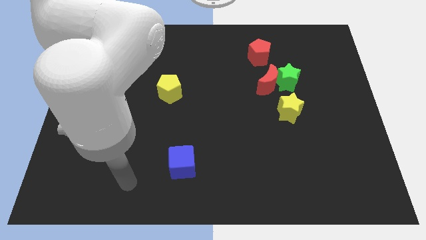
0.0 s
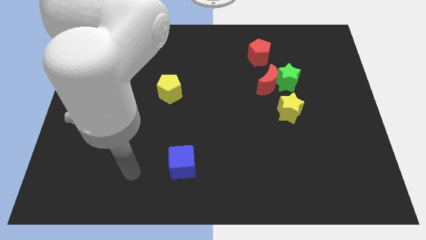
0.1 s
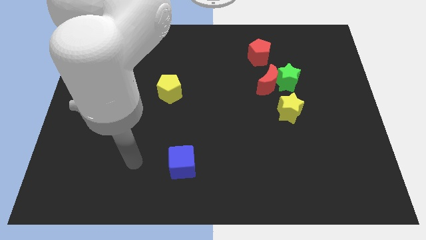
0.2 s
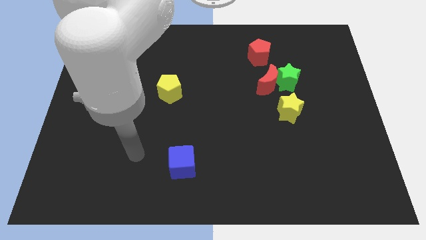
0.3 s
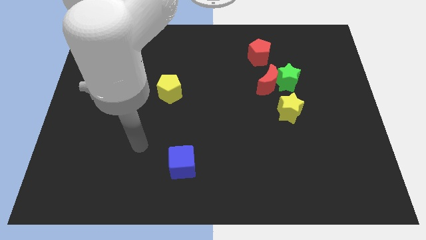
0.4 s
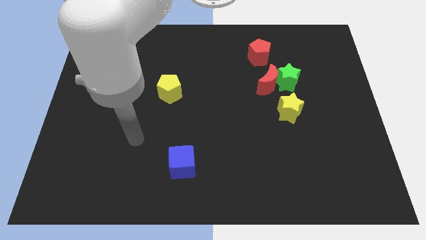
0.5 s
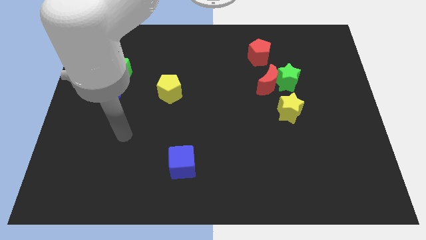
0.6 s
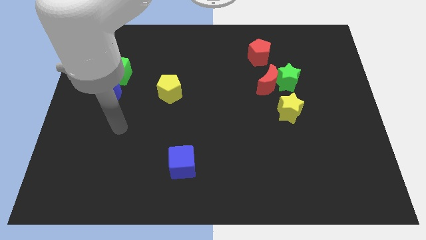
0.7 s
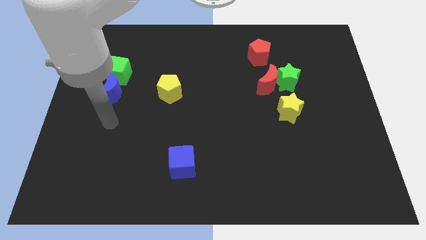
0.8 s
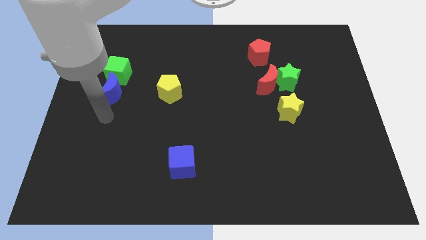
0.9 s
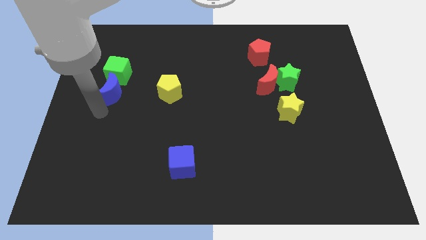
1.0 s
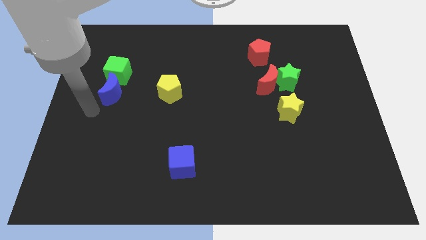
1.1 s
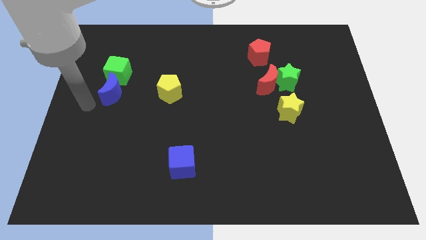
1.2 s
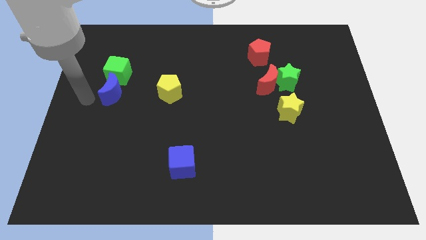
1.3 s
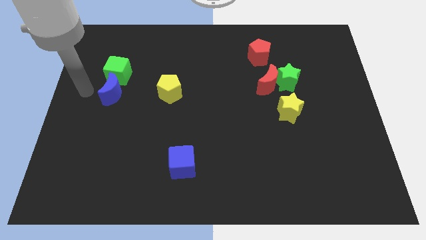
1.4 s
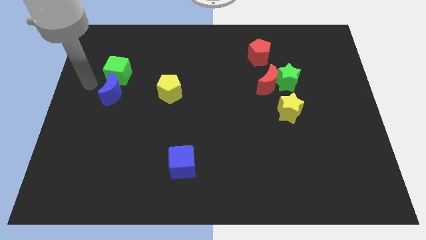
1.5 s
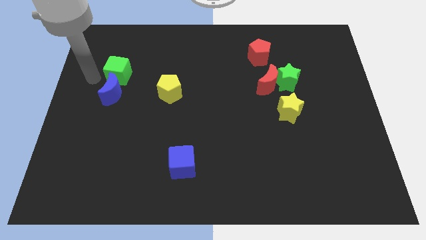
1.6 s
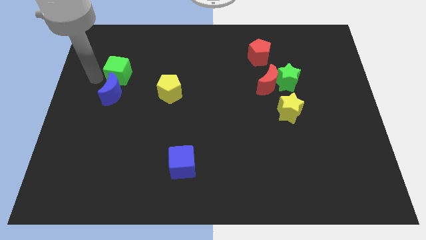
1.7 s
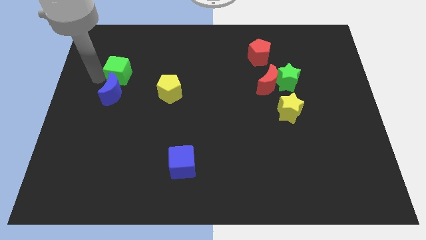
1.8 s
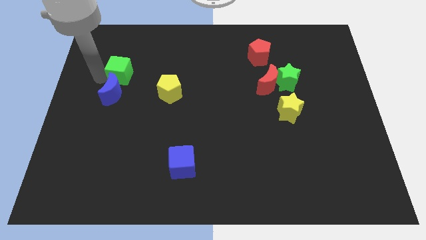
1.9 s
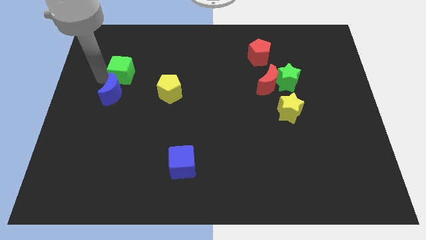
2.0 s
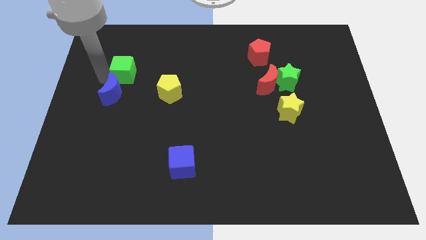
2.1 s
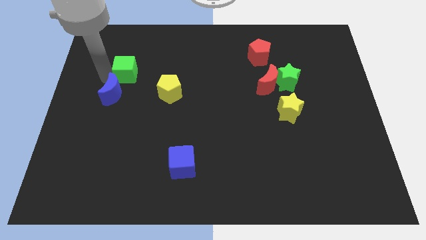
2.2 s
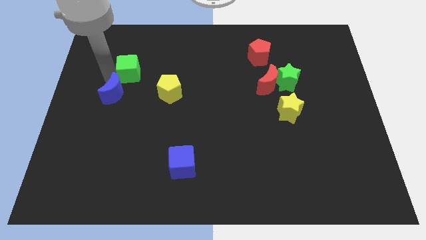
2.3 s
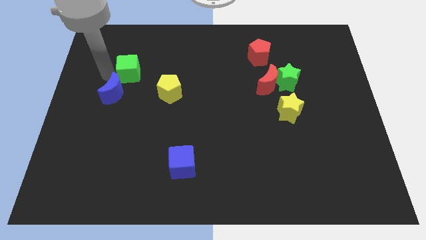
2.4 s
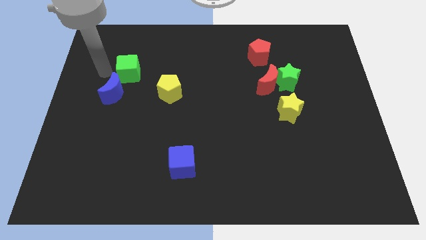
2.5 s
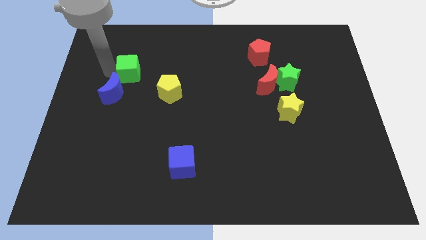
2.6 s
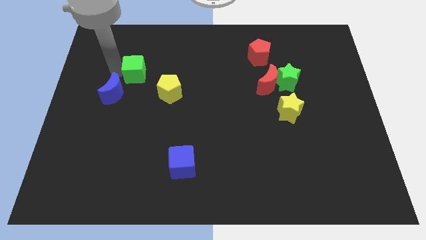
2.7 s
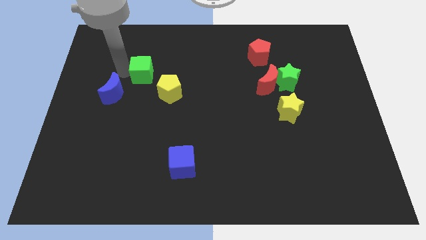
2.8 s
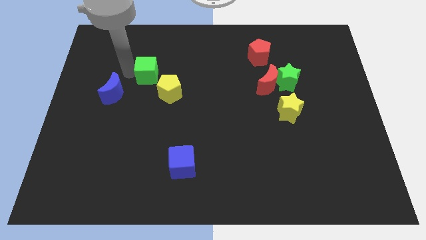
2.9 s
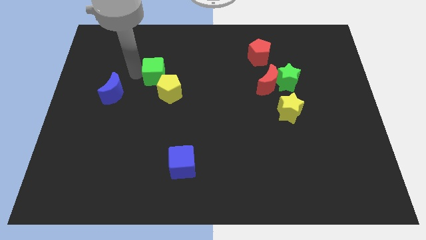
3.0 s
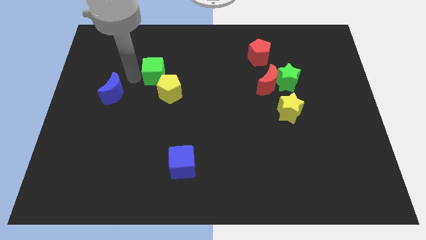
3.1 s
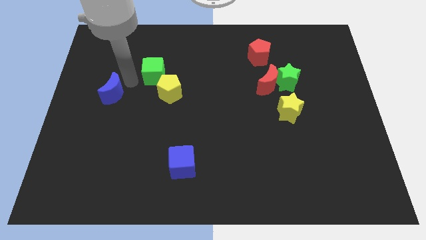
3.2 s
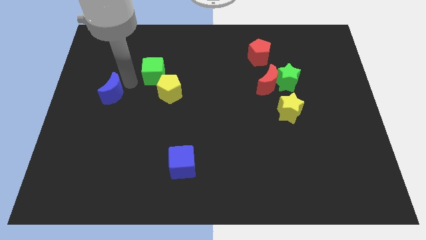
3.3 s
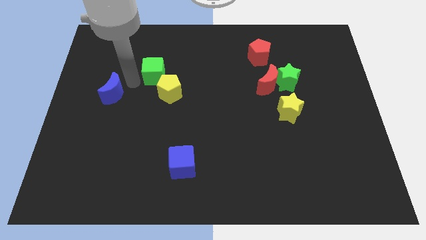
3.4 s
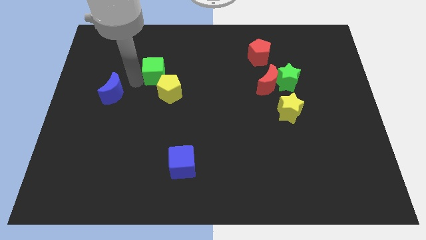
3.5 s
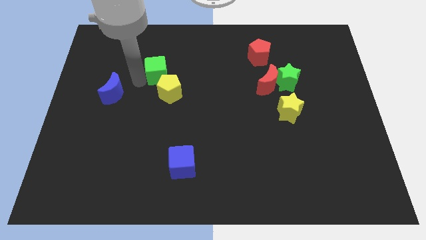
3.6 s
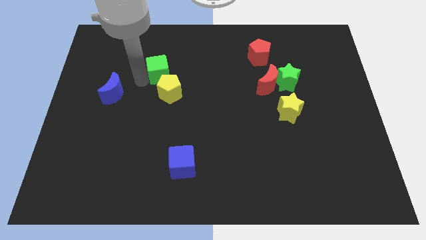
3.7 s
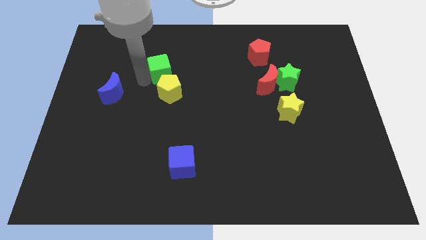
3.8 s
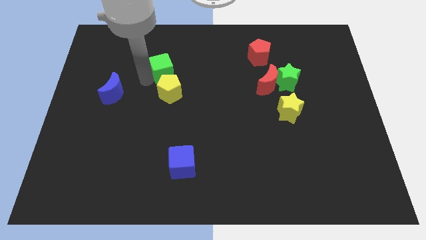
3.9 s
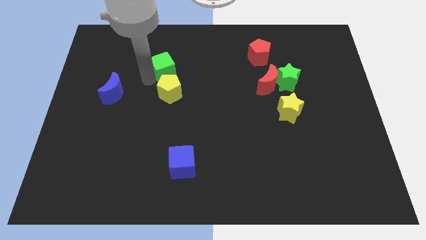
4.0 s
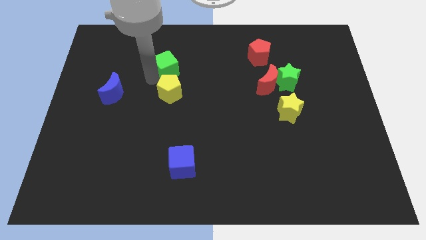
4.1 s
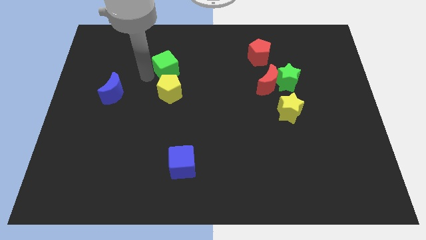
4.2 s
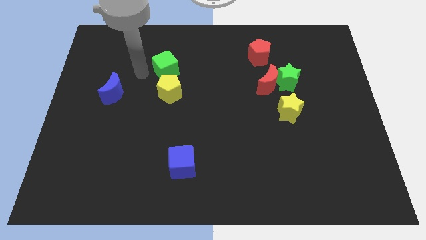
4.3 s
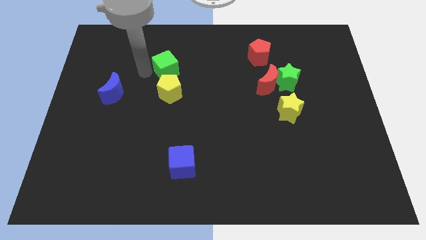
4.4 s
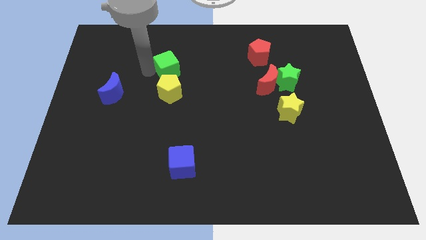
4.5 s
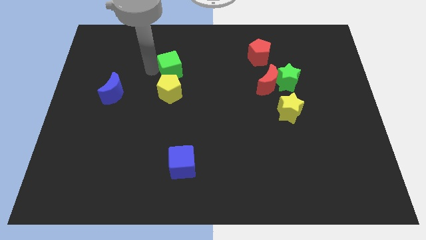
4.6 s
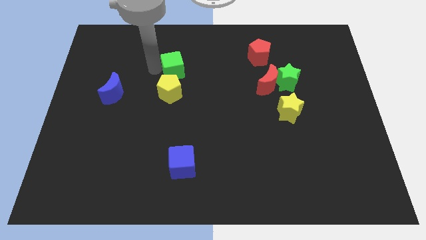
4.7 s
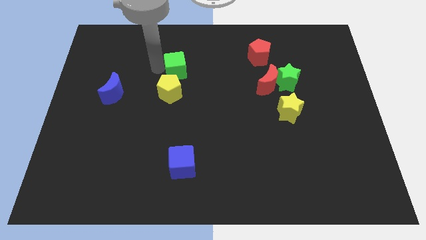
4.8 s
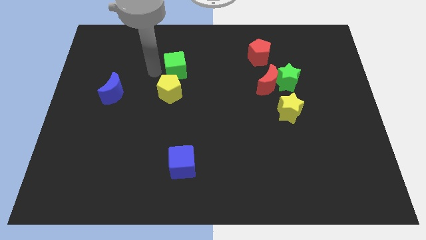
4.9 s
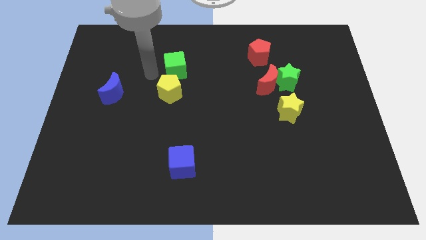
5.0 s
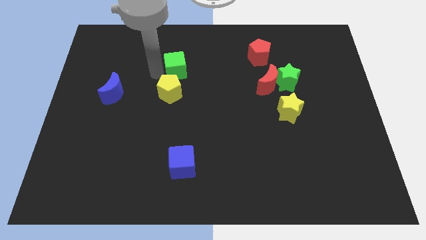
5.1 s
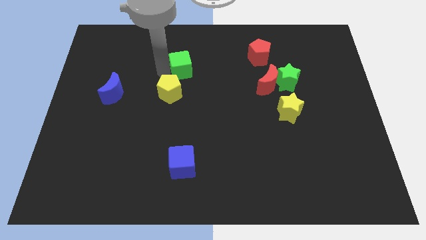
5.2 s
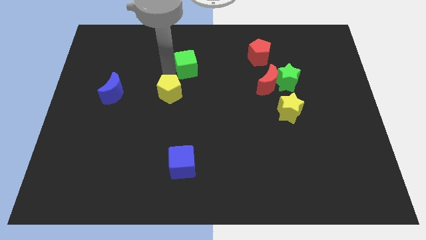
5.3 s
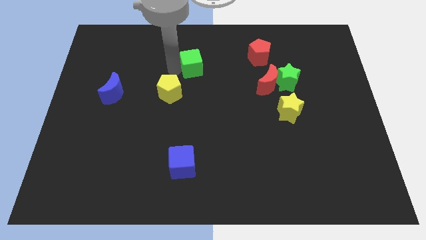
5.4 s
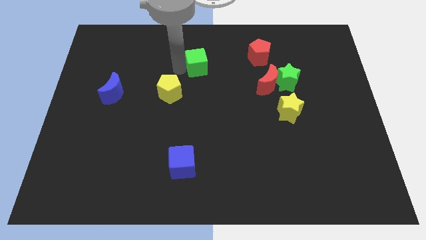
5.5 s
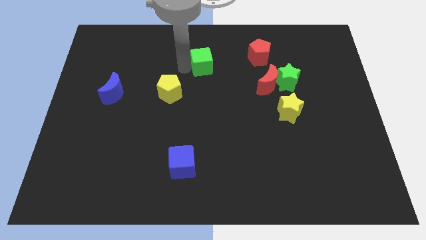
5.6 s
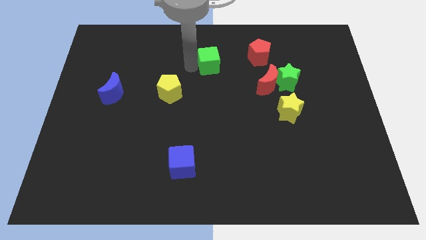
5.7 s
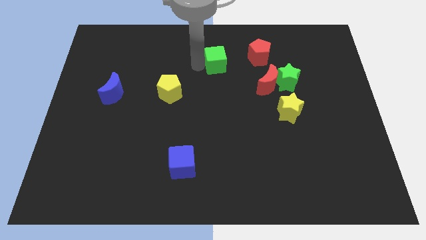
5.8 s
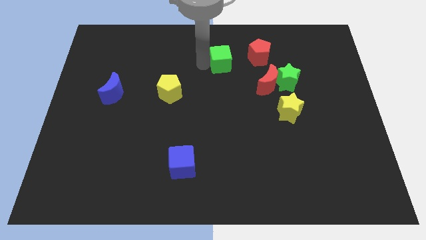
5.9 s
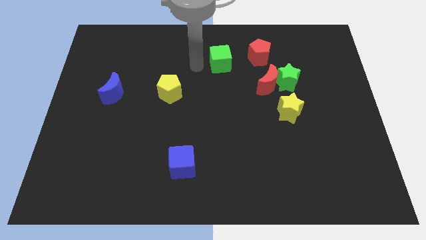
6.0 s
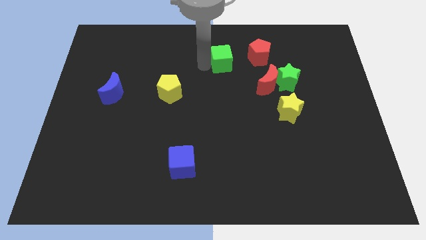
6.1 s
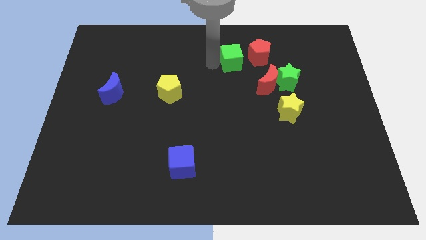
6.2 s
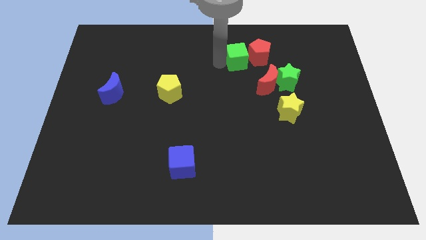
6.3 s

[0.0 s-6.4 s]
push the green cube close to the red pentagon

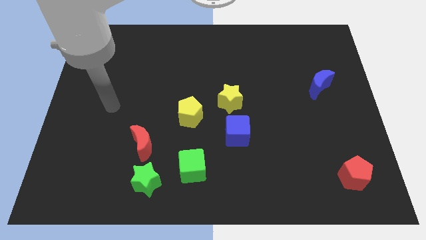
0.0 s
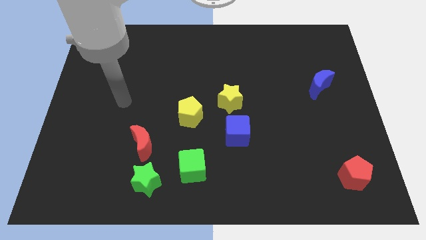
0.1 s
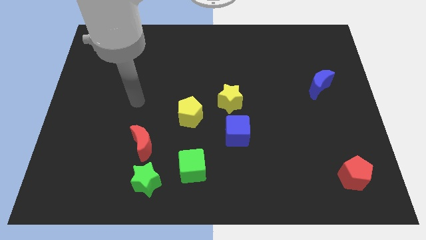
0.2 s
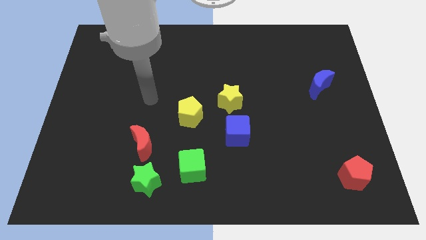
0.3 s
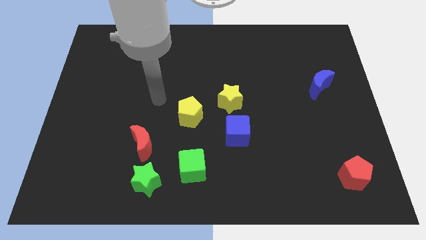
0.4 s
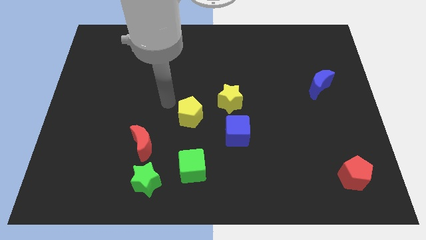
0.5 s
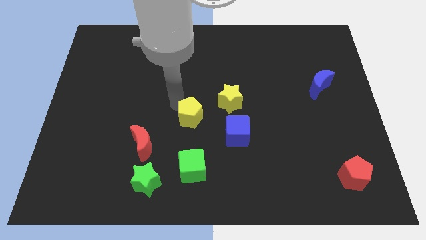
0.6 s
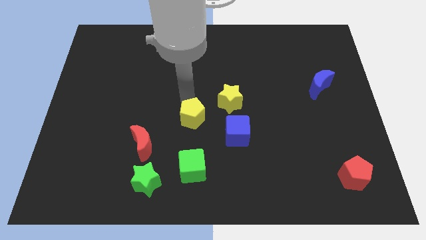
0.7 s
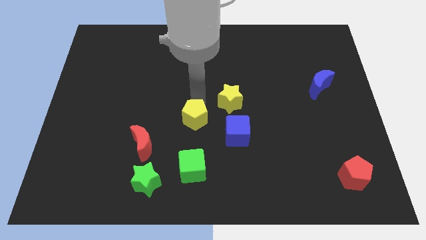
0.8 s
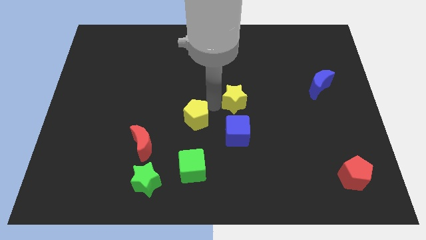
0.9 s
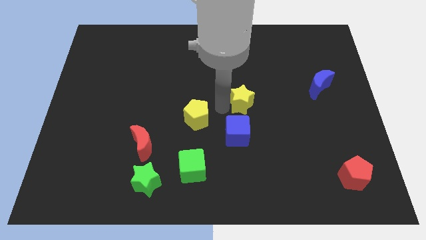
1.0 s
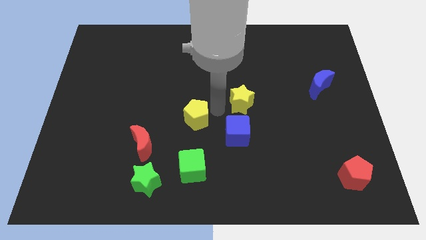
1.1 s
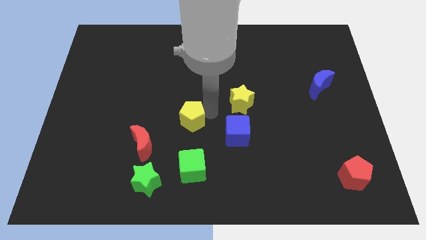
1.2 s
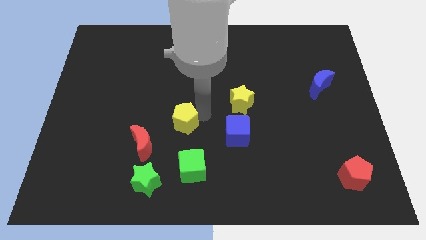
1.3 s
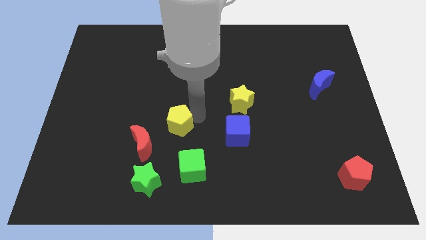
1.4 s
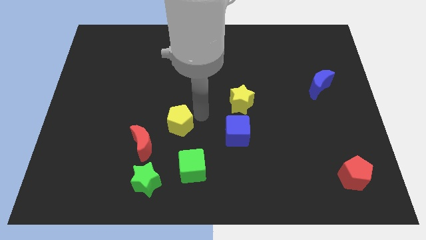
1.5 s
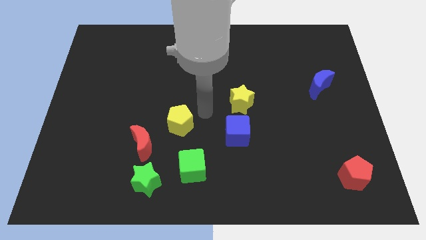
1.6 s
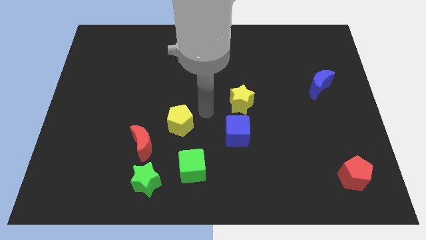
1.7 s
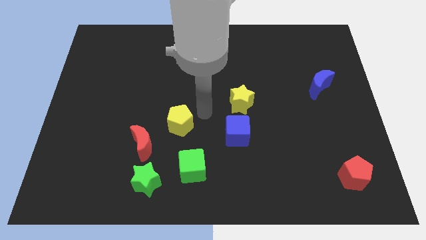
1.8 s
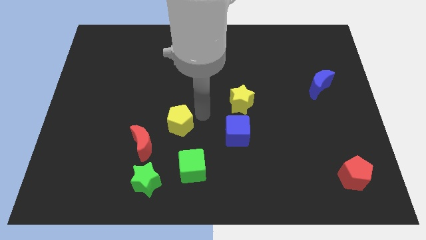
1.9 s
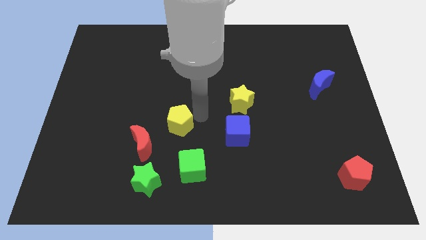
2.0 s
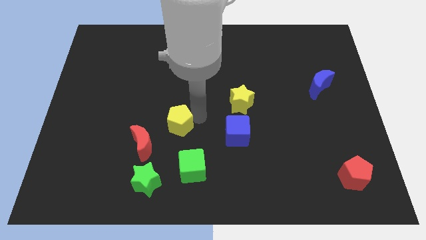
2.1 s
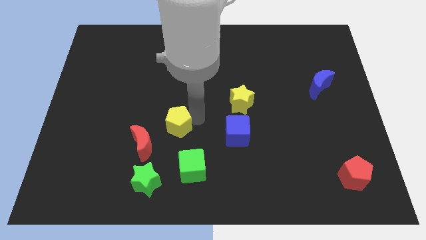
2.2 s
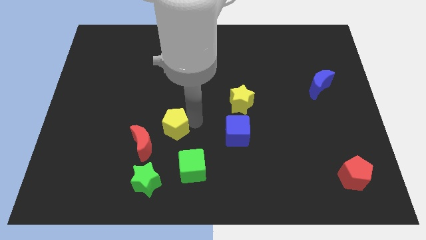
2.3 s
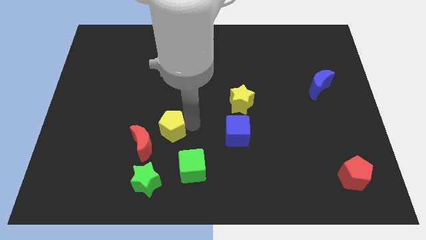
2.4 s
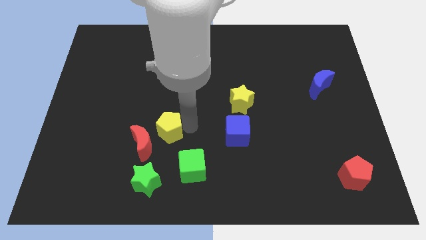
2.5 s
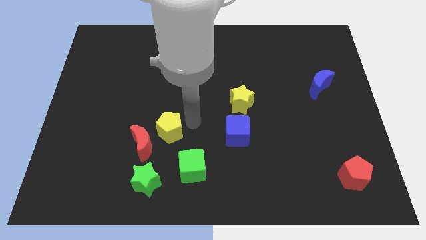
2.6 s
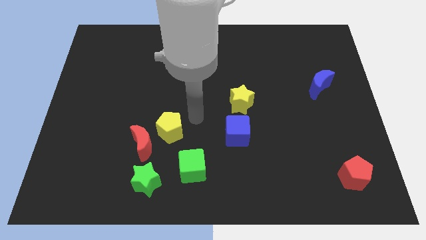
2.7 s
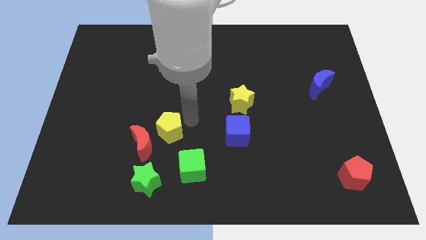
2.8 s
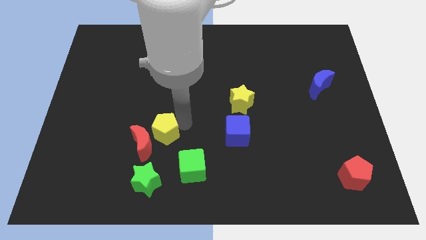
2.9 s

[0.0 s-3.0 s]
push the yellow pentagon to the red moon
